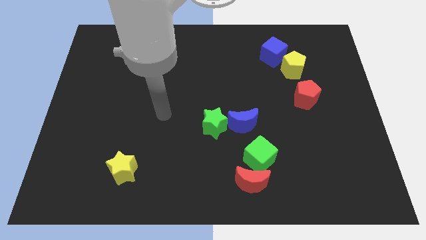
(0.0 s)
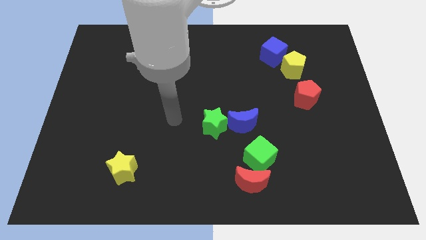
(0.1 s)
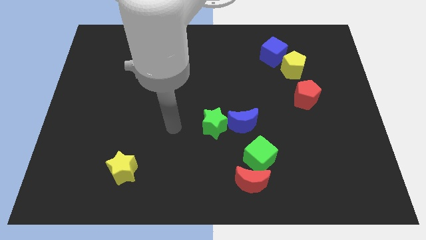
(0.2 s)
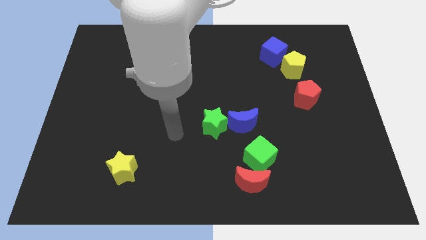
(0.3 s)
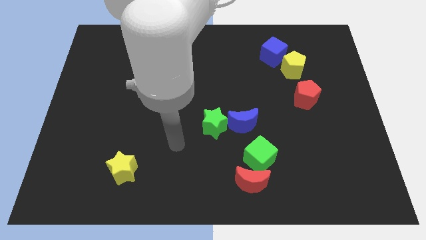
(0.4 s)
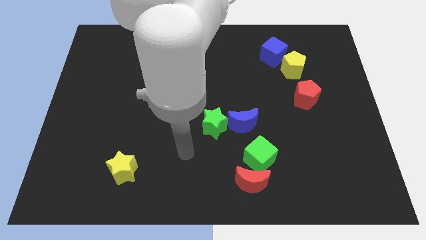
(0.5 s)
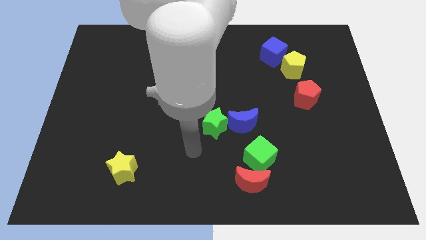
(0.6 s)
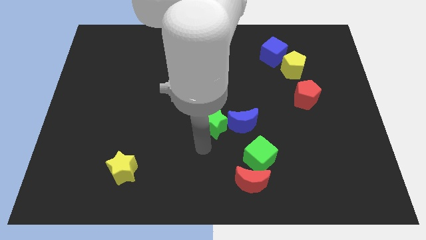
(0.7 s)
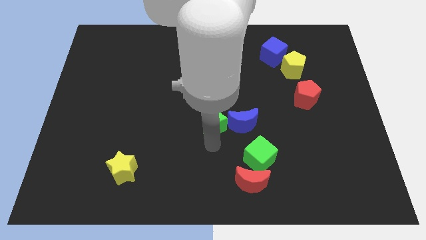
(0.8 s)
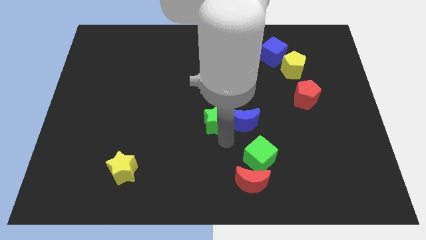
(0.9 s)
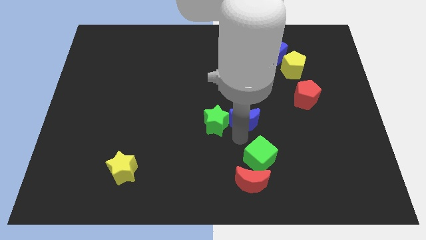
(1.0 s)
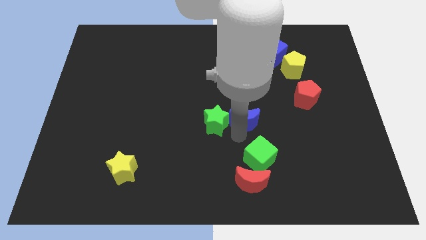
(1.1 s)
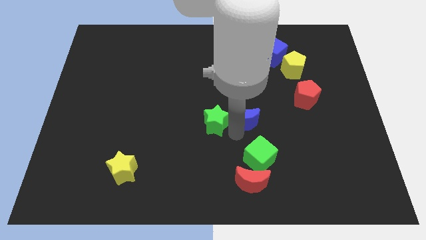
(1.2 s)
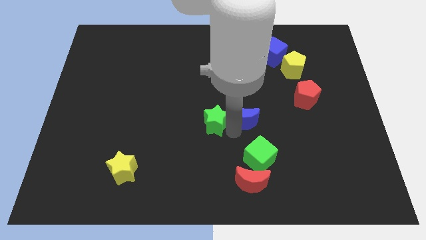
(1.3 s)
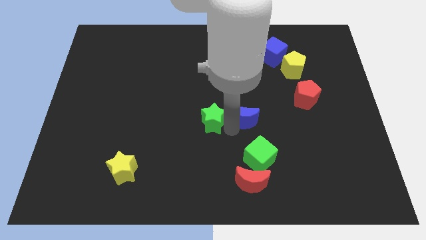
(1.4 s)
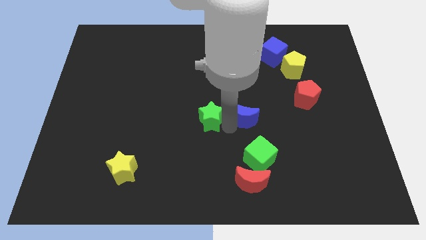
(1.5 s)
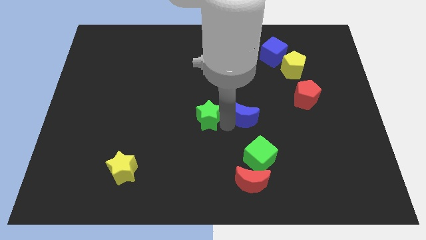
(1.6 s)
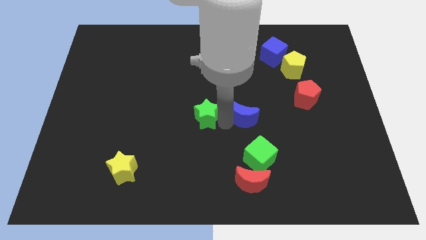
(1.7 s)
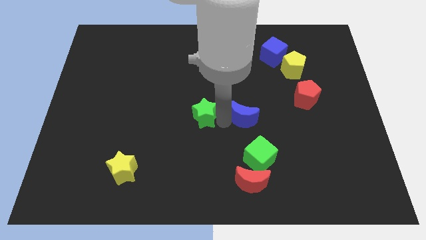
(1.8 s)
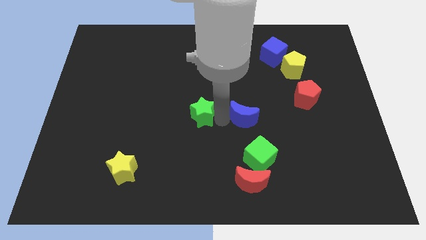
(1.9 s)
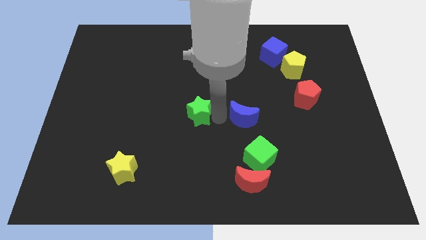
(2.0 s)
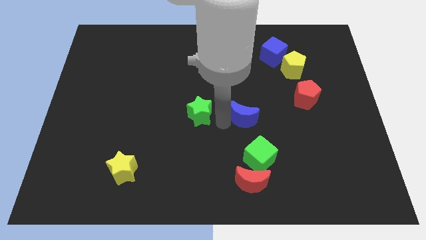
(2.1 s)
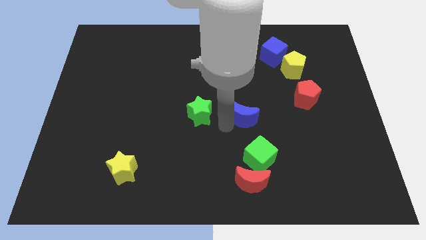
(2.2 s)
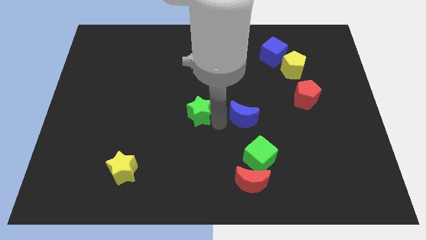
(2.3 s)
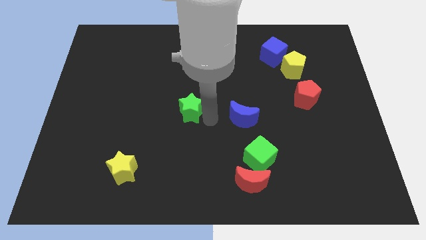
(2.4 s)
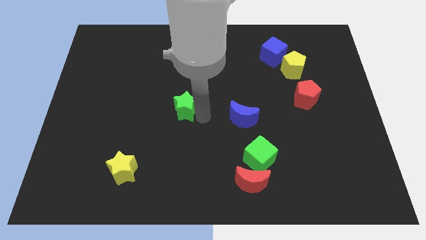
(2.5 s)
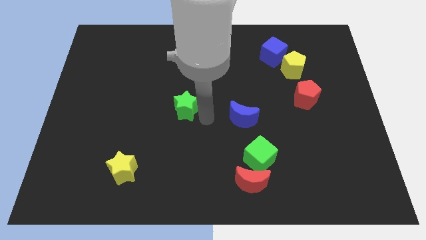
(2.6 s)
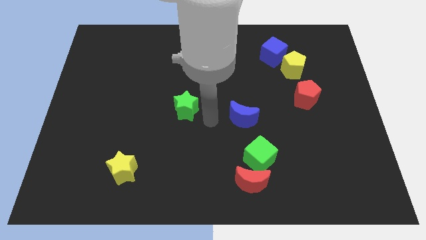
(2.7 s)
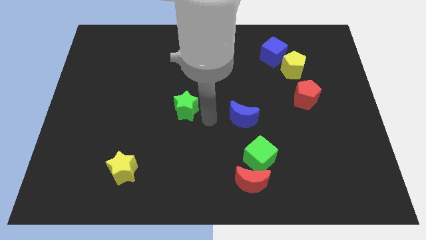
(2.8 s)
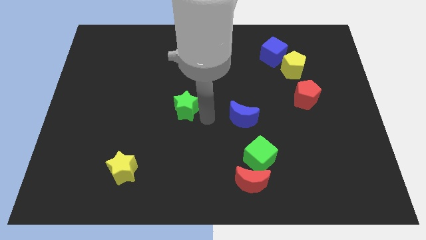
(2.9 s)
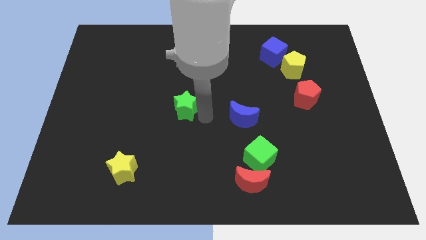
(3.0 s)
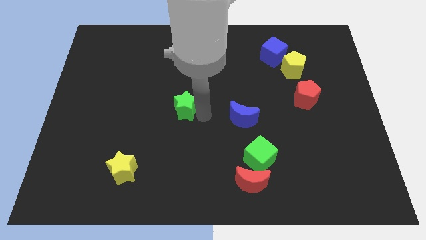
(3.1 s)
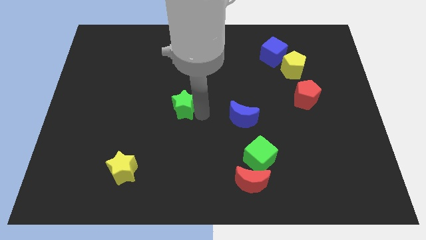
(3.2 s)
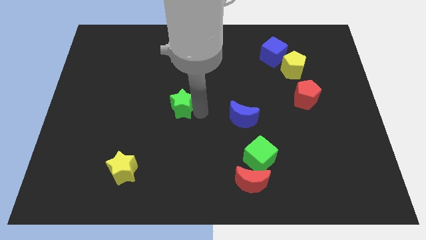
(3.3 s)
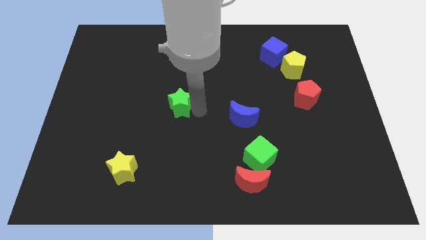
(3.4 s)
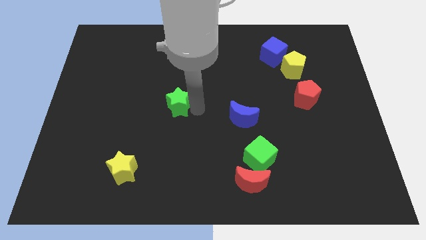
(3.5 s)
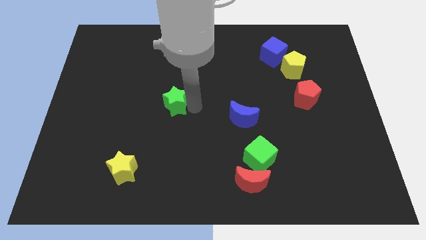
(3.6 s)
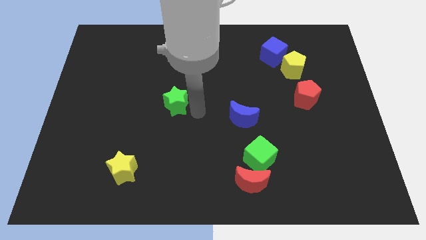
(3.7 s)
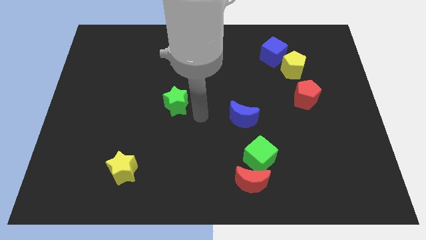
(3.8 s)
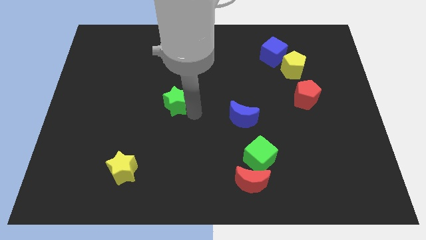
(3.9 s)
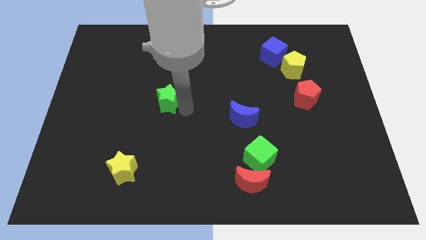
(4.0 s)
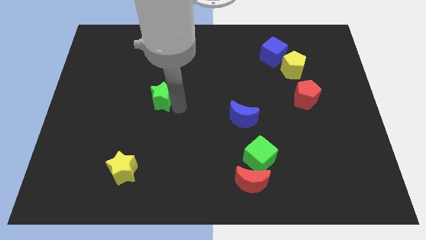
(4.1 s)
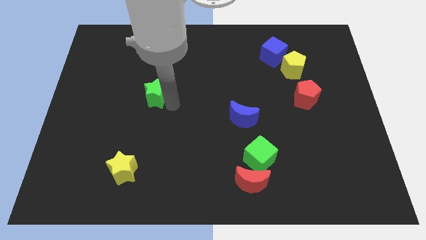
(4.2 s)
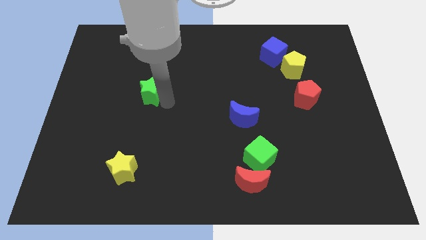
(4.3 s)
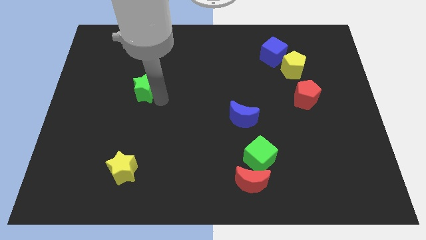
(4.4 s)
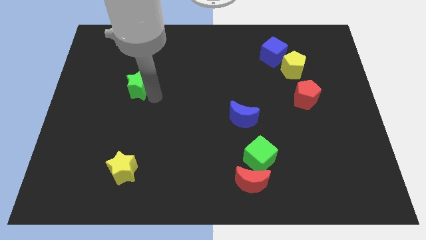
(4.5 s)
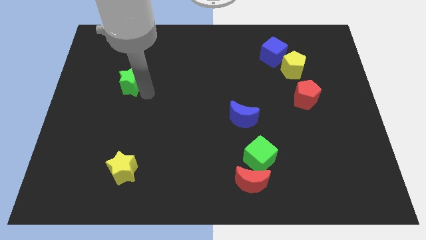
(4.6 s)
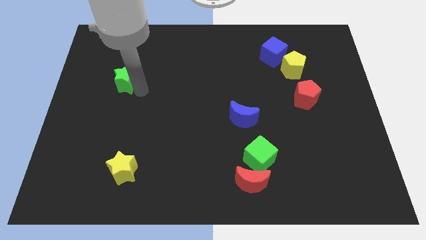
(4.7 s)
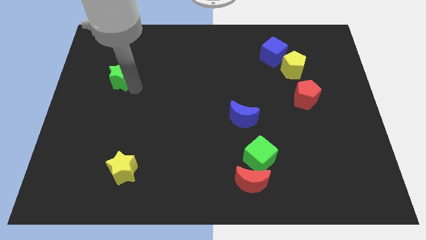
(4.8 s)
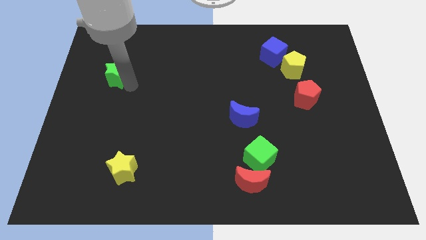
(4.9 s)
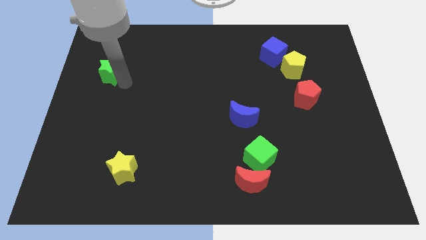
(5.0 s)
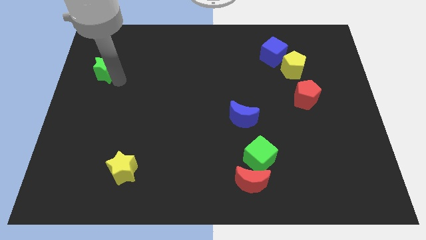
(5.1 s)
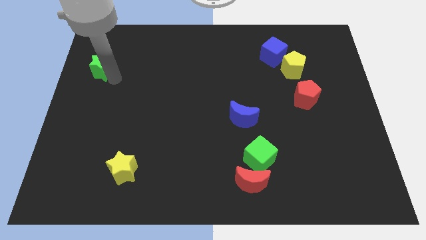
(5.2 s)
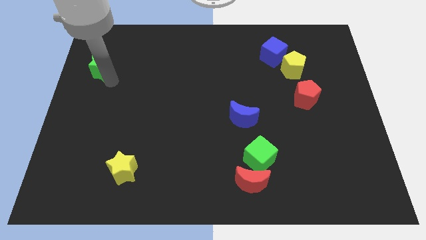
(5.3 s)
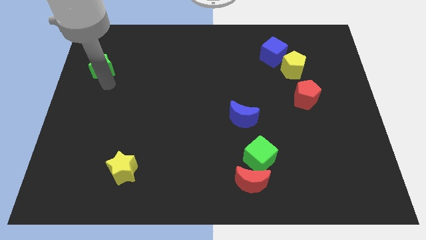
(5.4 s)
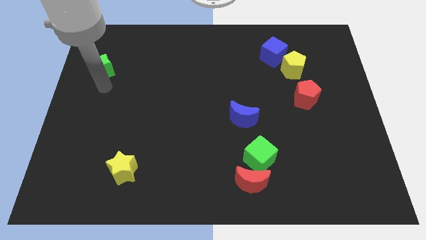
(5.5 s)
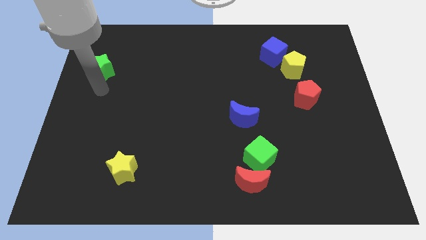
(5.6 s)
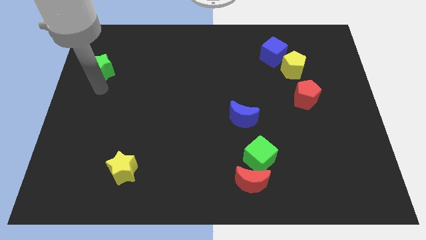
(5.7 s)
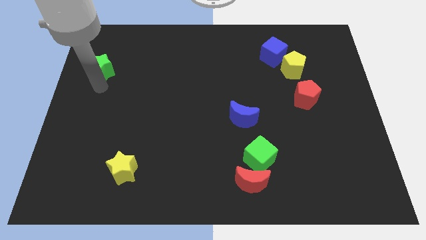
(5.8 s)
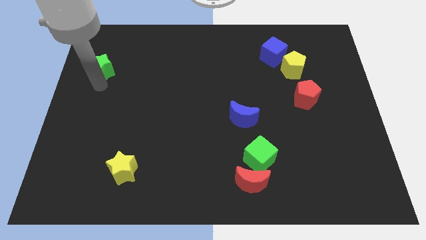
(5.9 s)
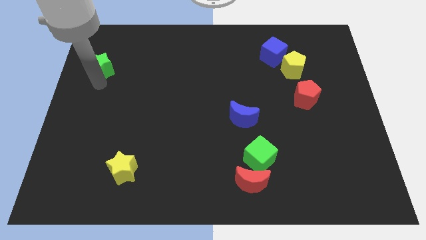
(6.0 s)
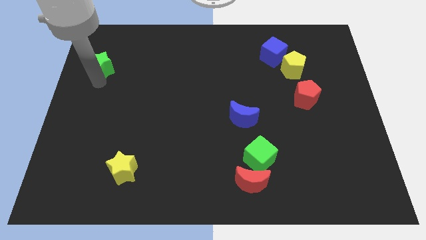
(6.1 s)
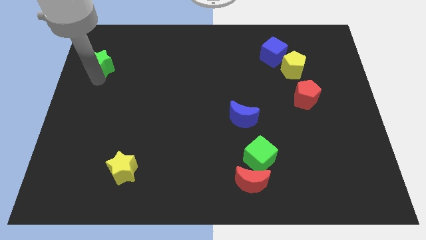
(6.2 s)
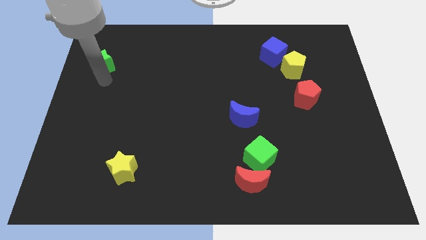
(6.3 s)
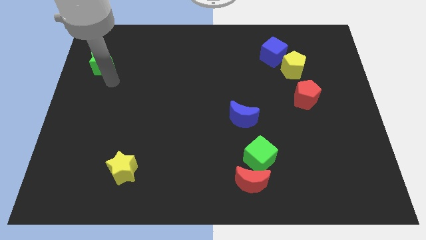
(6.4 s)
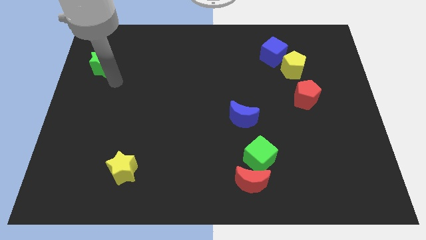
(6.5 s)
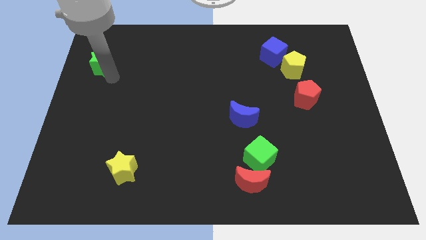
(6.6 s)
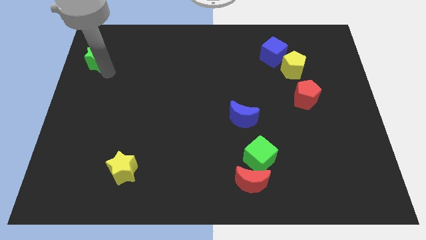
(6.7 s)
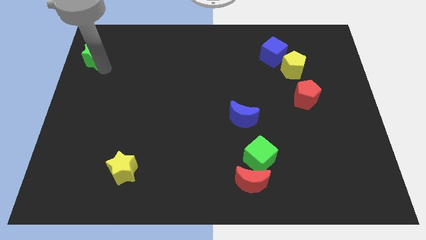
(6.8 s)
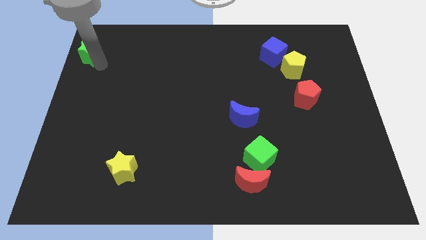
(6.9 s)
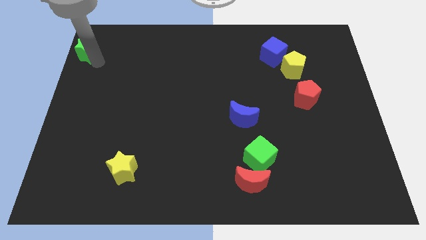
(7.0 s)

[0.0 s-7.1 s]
move the green star to the upper left corner
